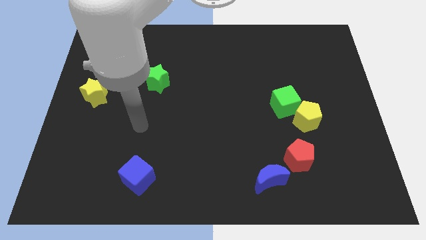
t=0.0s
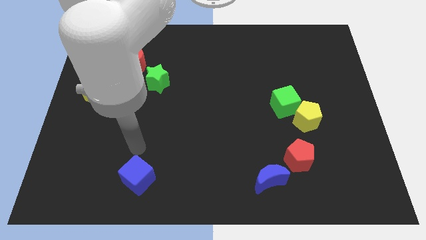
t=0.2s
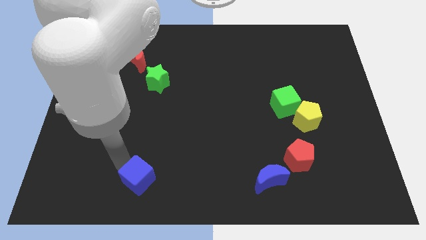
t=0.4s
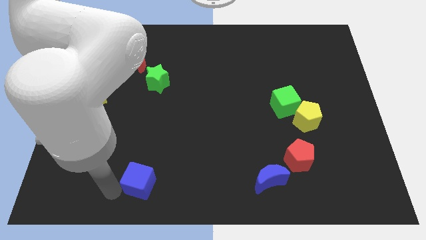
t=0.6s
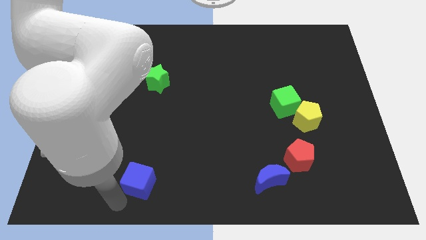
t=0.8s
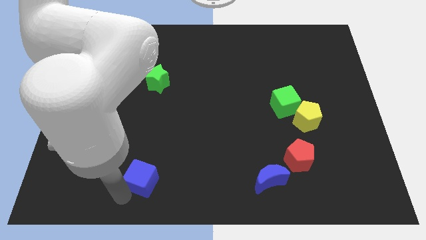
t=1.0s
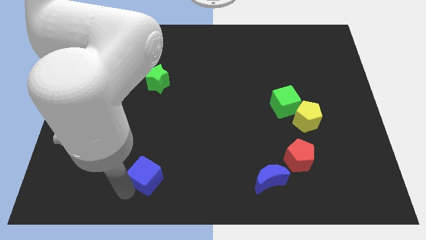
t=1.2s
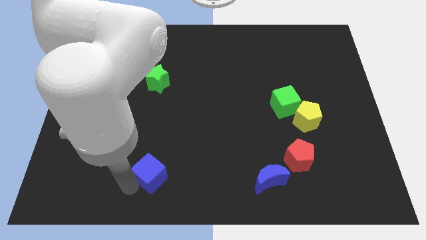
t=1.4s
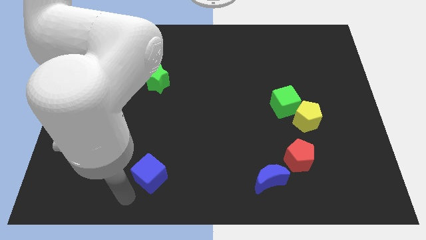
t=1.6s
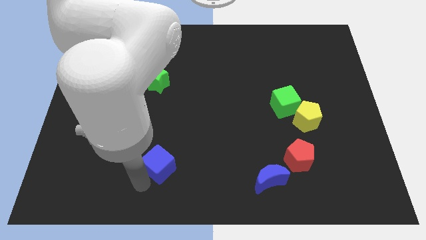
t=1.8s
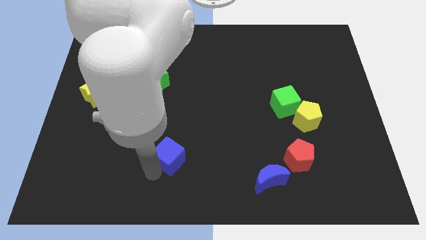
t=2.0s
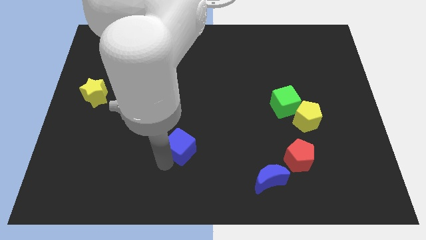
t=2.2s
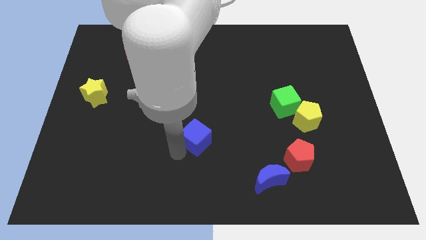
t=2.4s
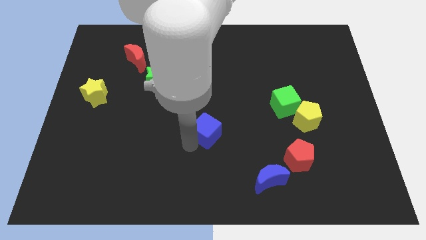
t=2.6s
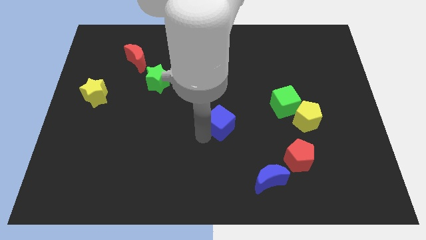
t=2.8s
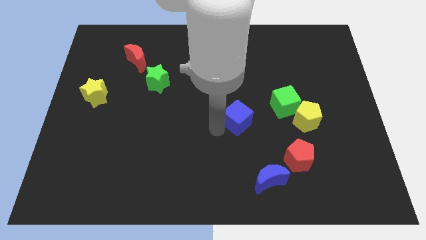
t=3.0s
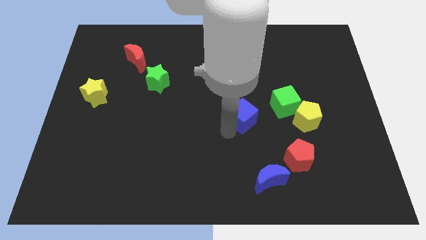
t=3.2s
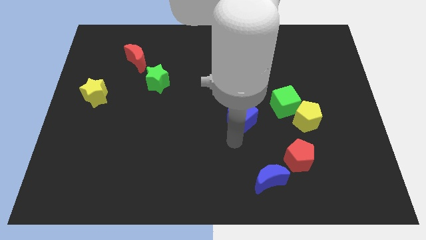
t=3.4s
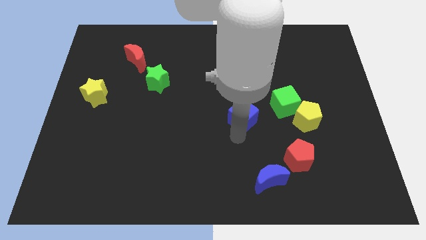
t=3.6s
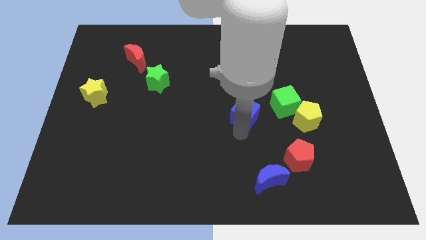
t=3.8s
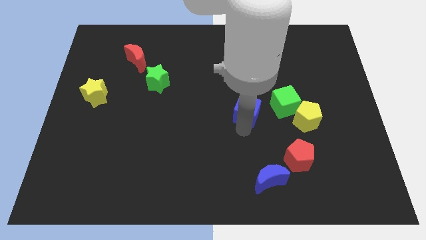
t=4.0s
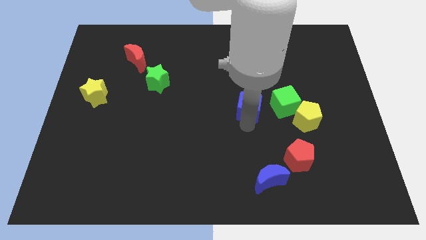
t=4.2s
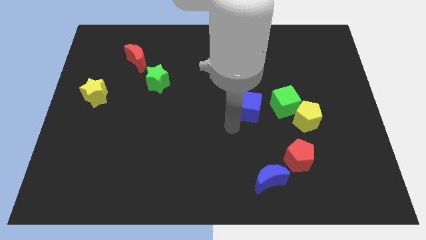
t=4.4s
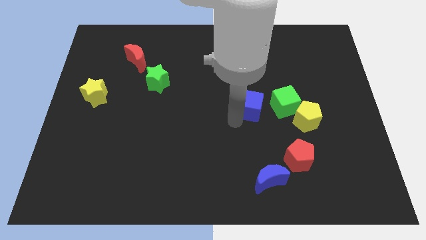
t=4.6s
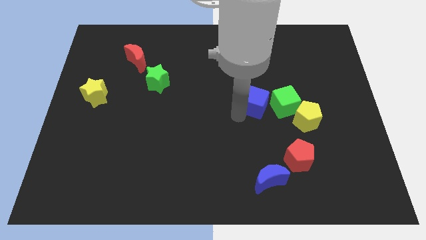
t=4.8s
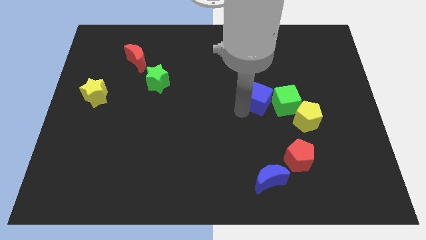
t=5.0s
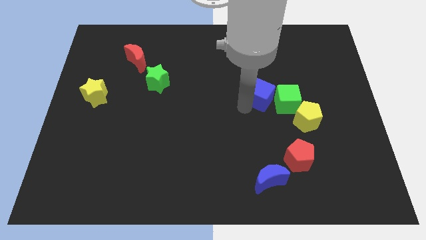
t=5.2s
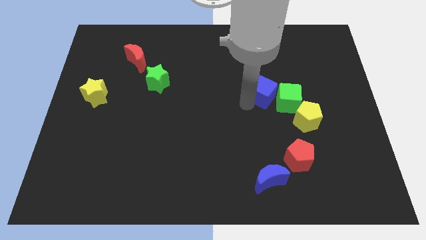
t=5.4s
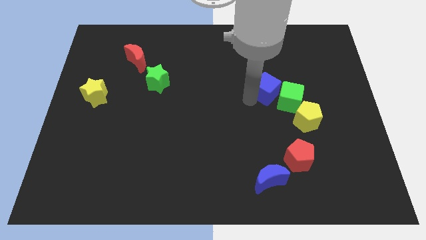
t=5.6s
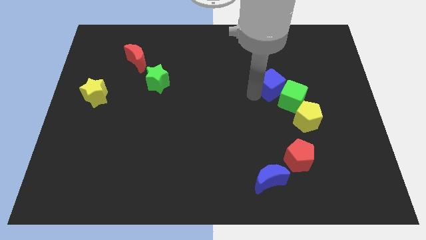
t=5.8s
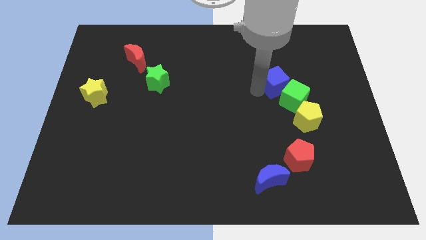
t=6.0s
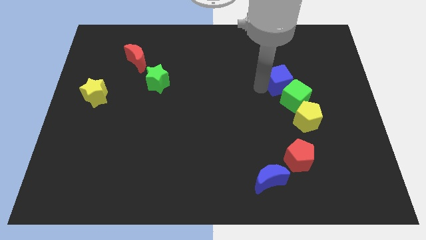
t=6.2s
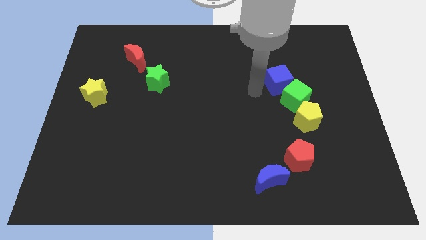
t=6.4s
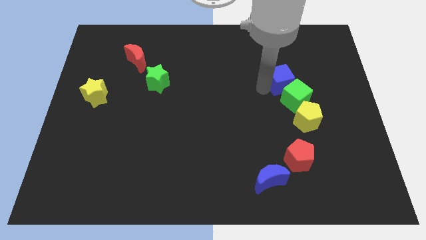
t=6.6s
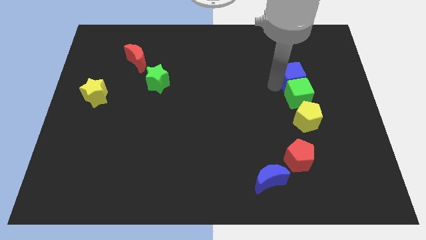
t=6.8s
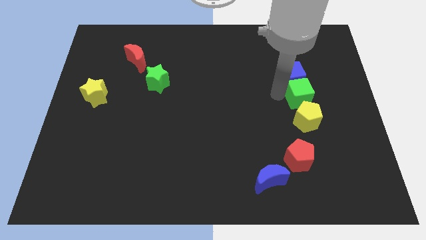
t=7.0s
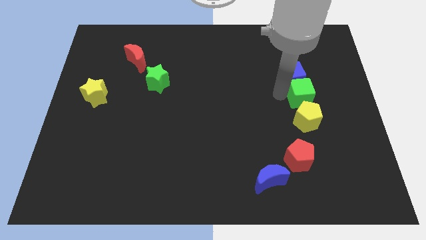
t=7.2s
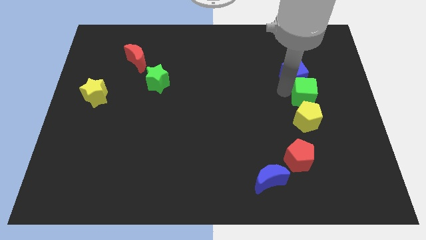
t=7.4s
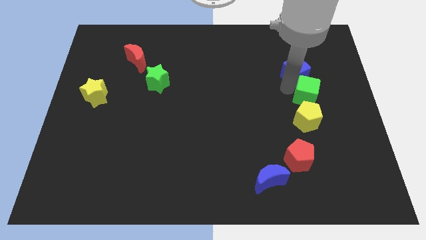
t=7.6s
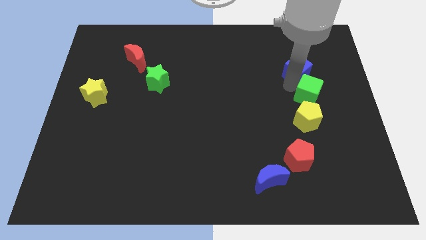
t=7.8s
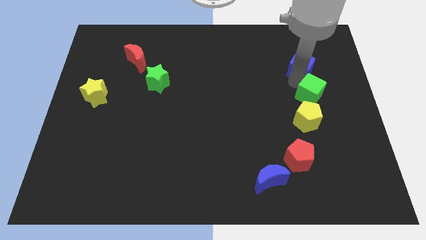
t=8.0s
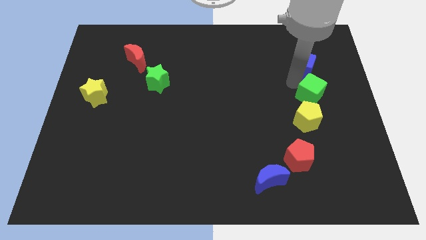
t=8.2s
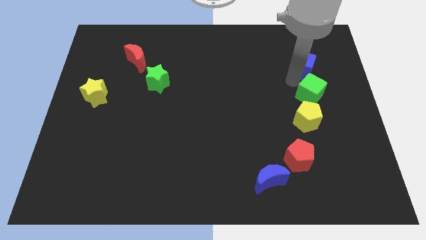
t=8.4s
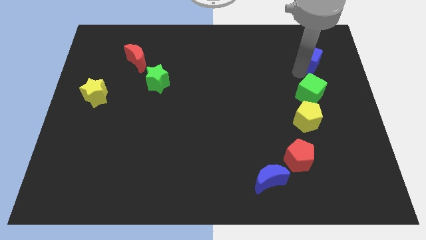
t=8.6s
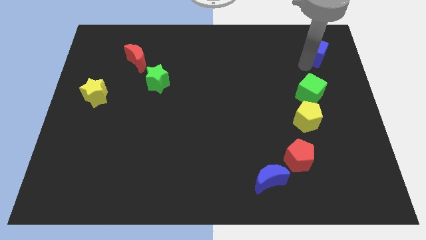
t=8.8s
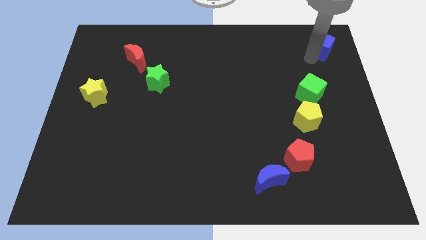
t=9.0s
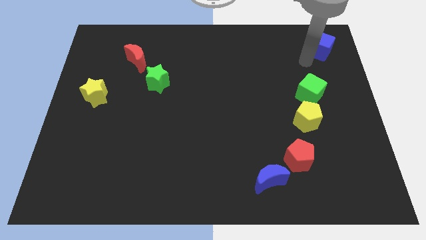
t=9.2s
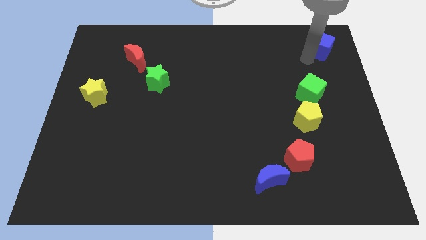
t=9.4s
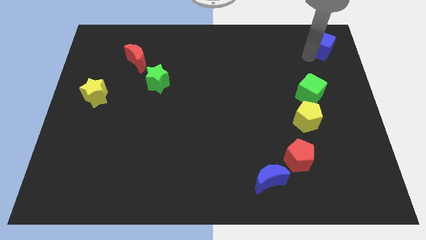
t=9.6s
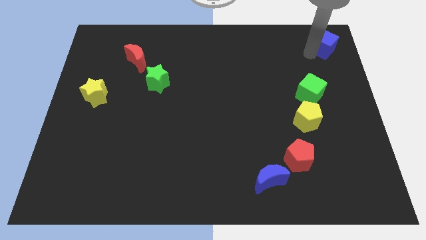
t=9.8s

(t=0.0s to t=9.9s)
put the blue cube to the upper right corner

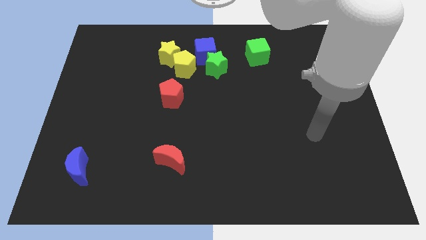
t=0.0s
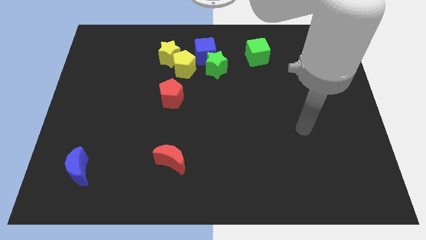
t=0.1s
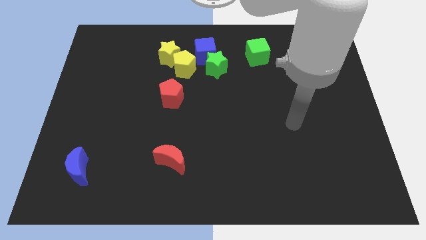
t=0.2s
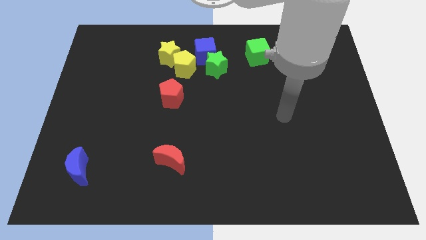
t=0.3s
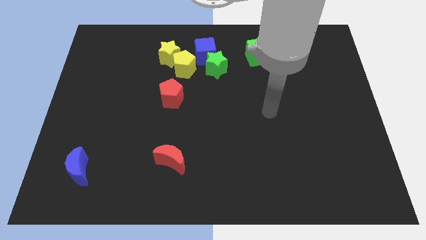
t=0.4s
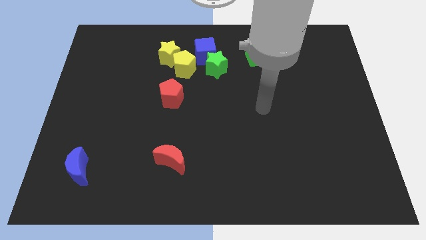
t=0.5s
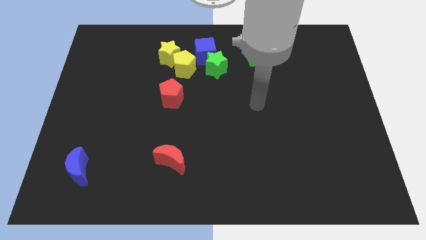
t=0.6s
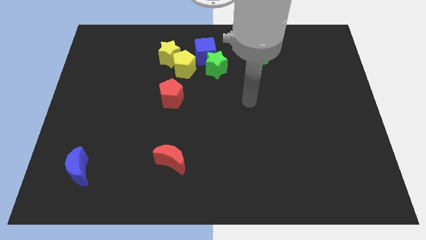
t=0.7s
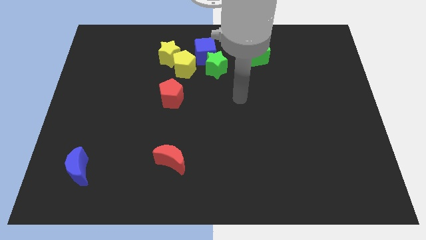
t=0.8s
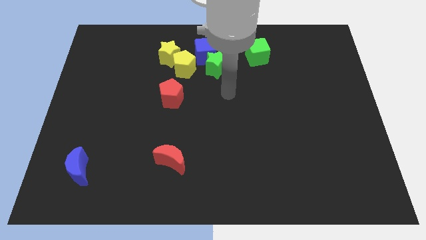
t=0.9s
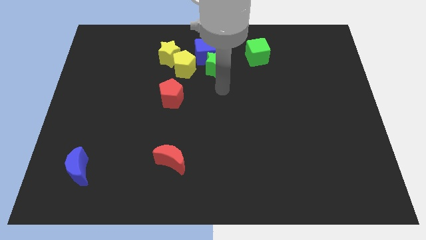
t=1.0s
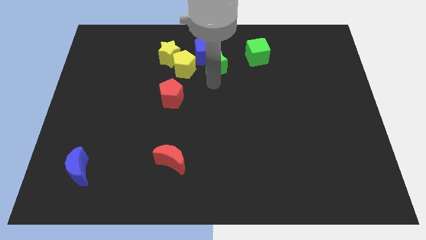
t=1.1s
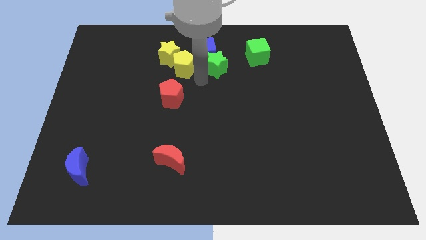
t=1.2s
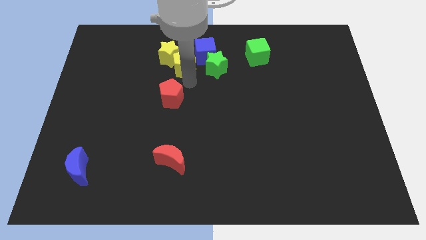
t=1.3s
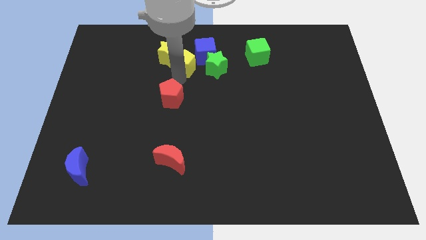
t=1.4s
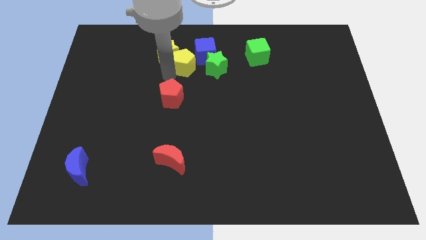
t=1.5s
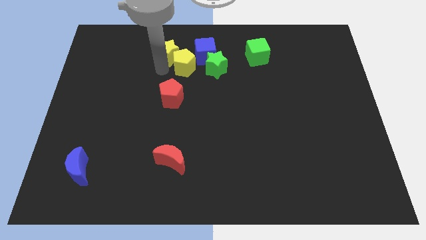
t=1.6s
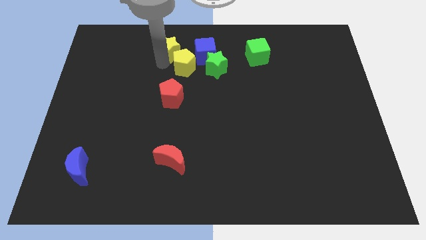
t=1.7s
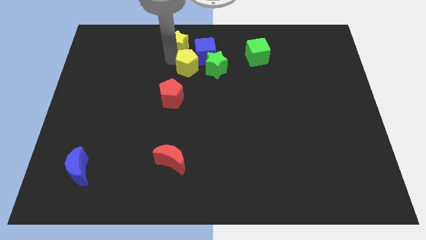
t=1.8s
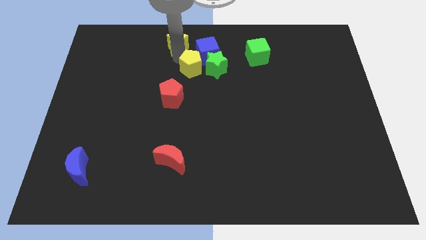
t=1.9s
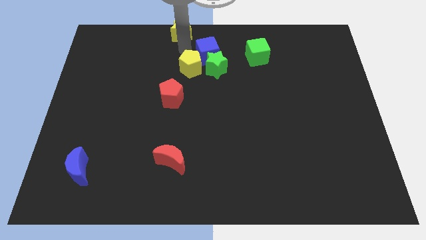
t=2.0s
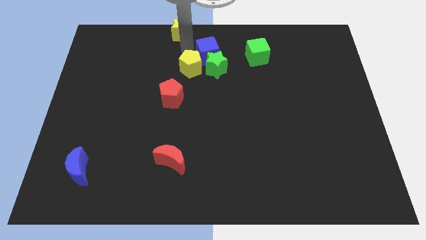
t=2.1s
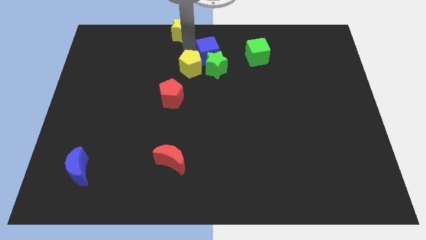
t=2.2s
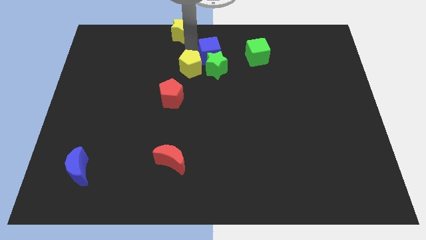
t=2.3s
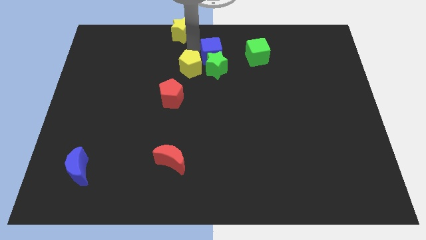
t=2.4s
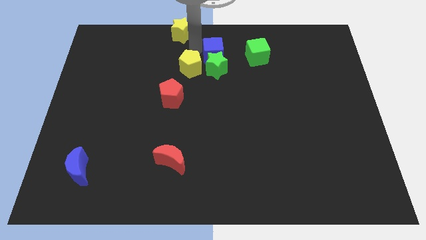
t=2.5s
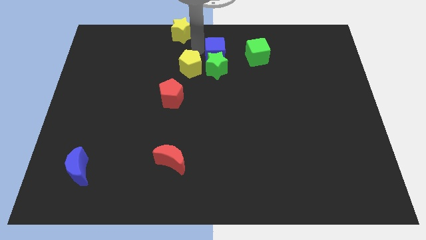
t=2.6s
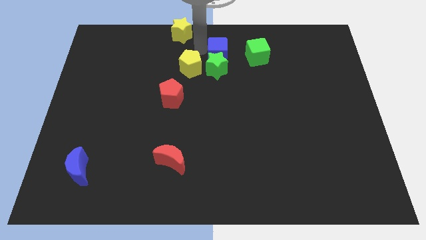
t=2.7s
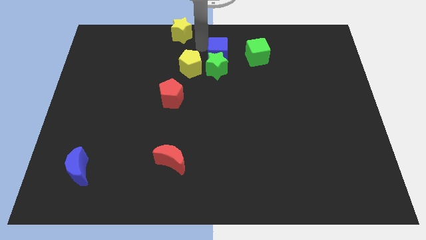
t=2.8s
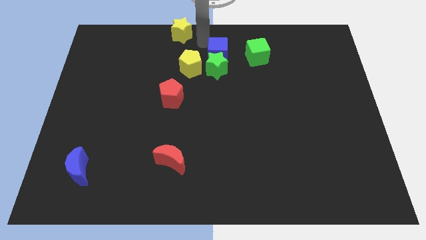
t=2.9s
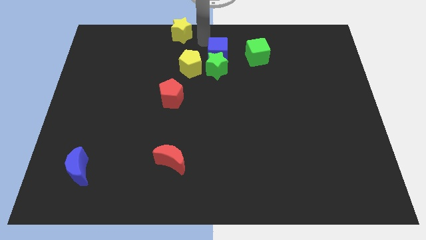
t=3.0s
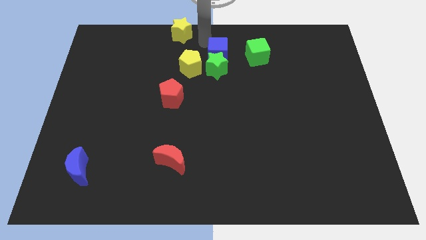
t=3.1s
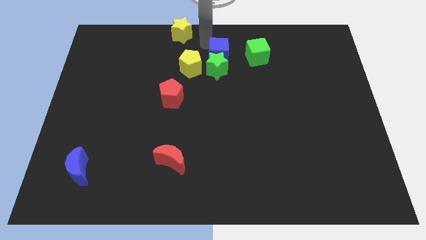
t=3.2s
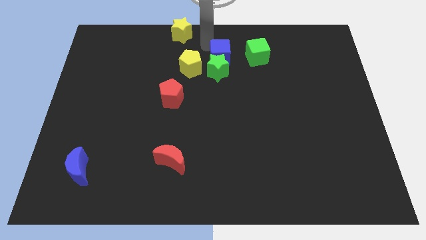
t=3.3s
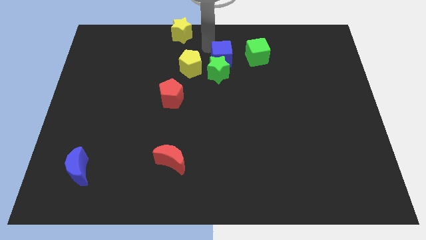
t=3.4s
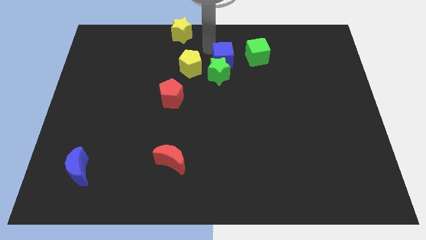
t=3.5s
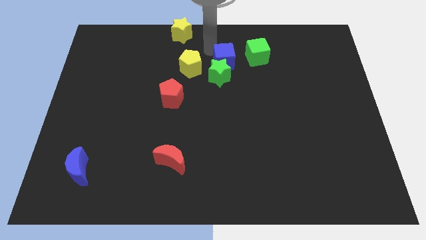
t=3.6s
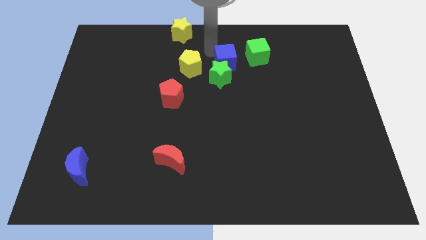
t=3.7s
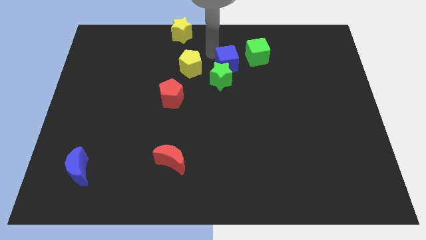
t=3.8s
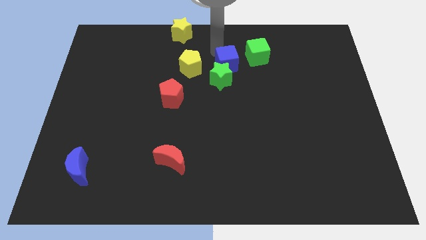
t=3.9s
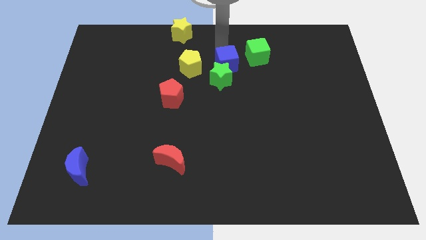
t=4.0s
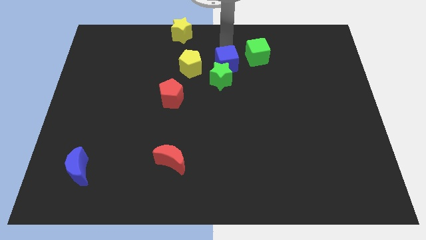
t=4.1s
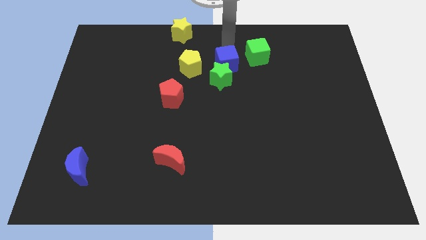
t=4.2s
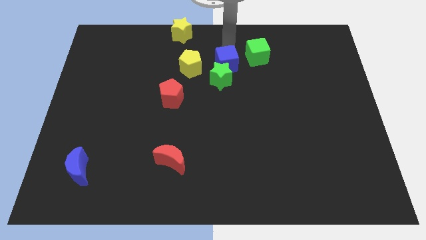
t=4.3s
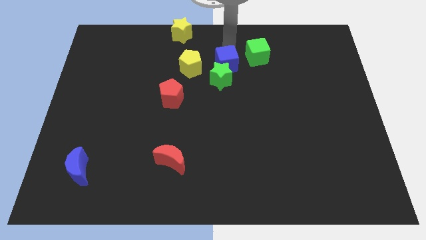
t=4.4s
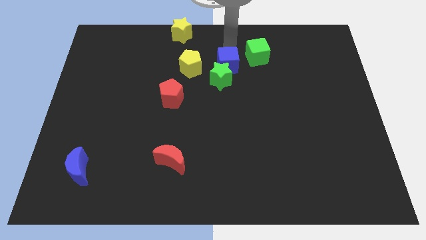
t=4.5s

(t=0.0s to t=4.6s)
push the blue cube to the middle of the board
